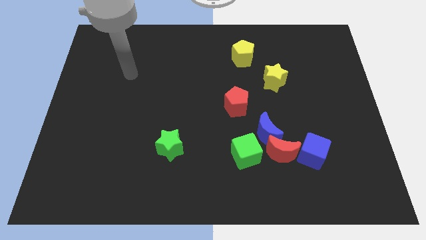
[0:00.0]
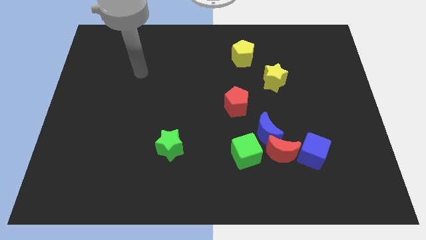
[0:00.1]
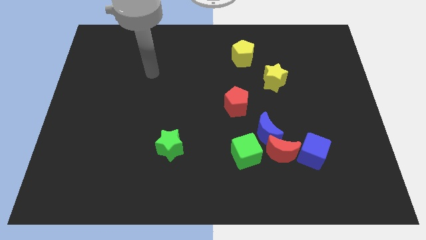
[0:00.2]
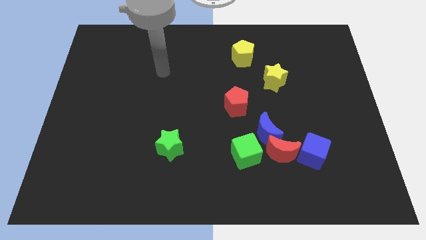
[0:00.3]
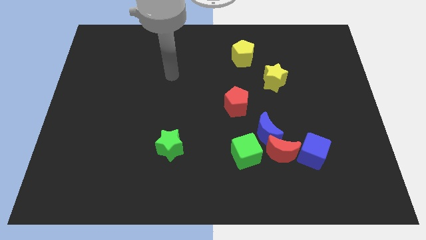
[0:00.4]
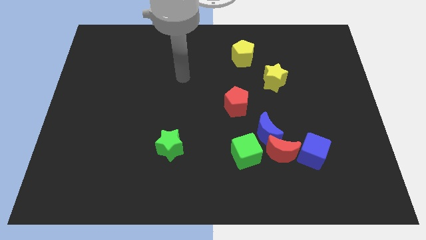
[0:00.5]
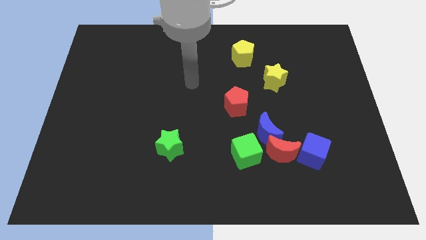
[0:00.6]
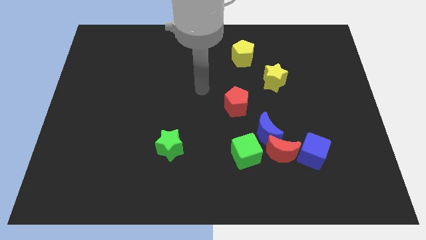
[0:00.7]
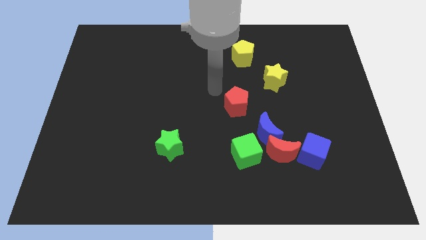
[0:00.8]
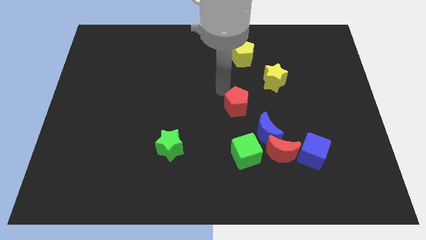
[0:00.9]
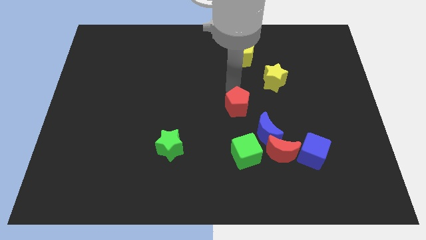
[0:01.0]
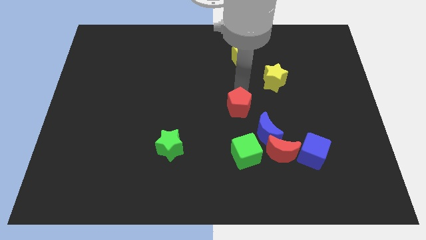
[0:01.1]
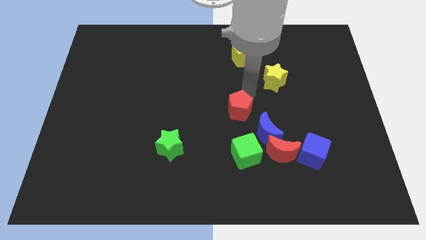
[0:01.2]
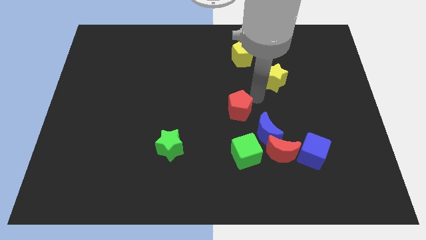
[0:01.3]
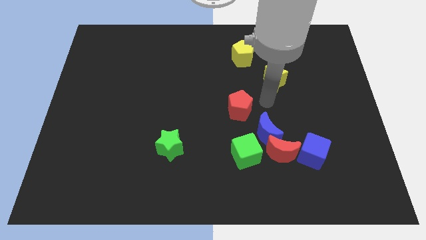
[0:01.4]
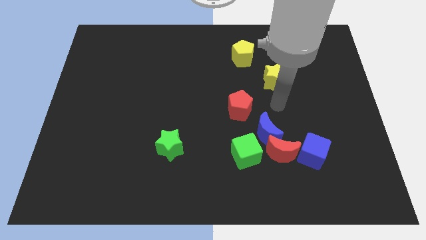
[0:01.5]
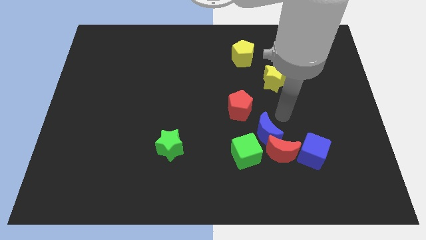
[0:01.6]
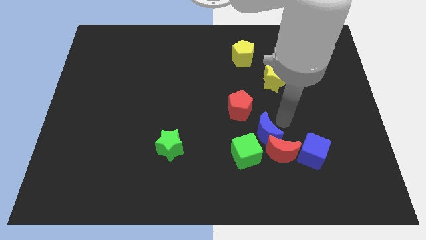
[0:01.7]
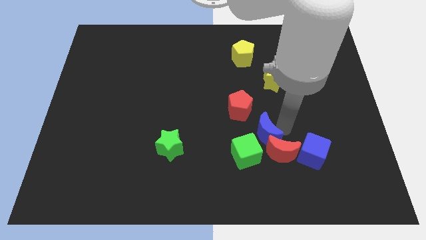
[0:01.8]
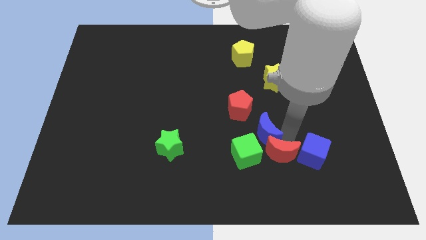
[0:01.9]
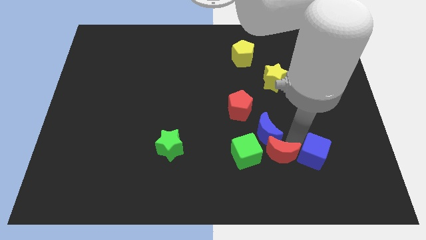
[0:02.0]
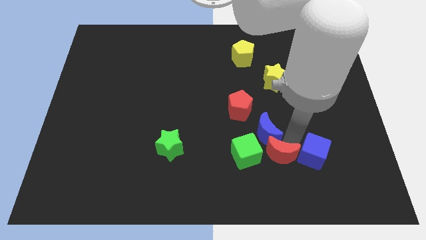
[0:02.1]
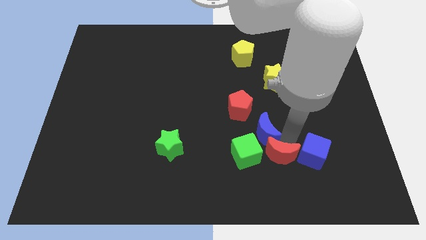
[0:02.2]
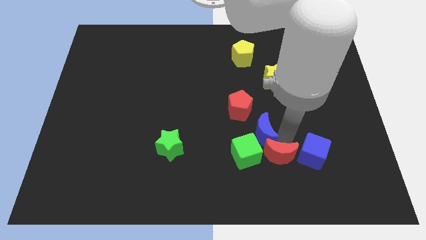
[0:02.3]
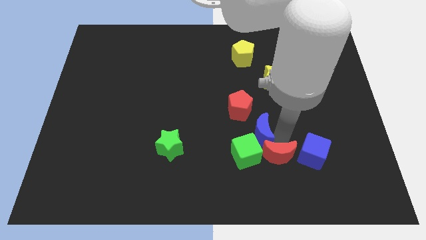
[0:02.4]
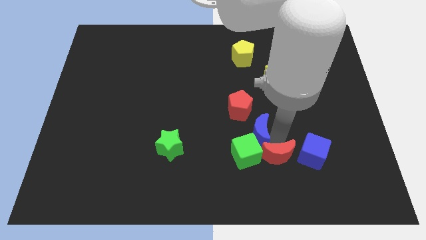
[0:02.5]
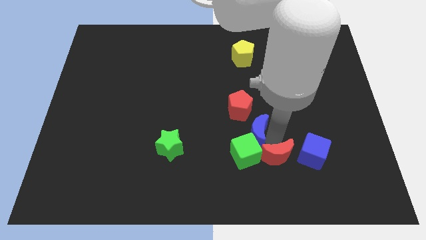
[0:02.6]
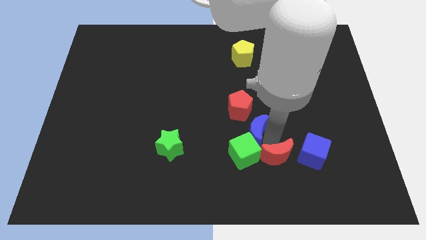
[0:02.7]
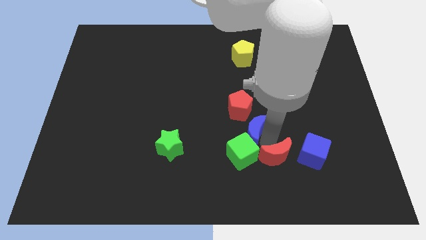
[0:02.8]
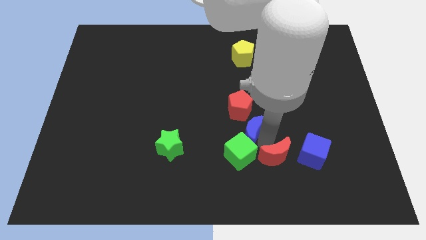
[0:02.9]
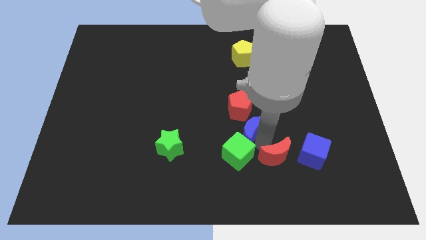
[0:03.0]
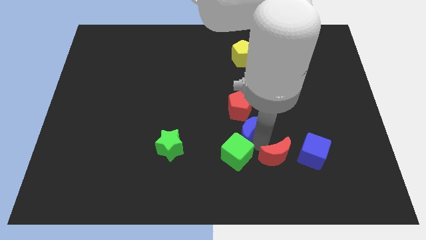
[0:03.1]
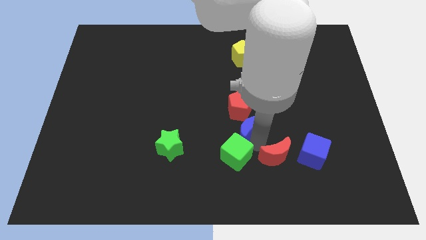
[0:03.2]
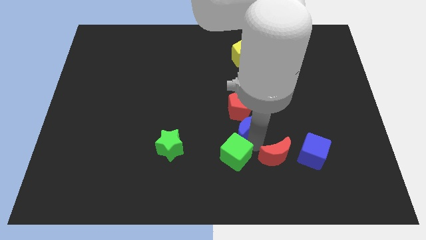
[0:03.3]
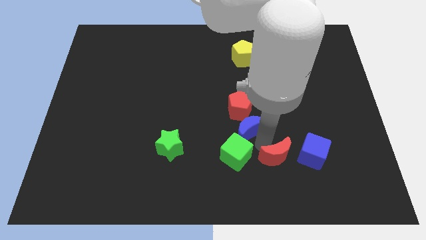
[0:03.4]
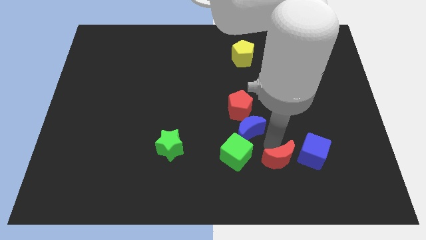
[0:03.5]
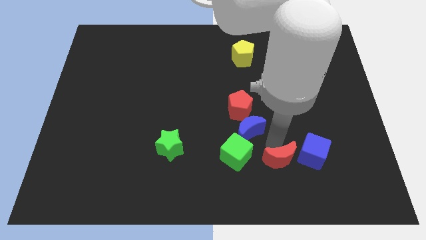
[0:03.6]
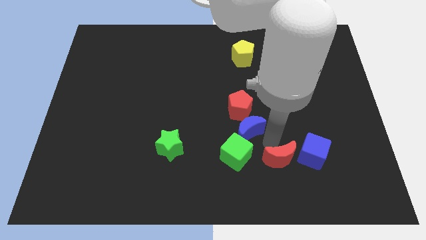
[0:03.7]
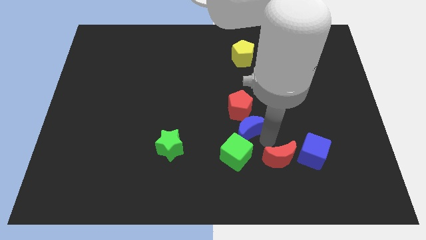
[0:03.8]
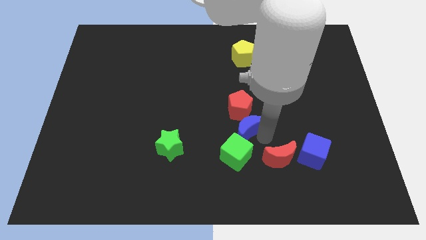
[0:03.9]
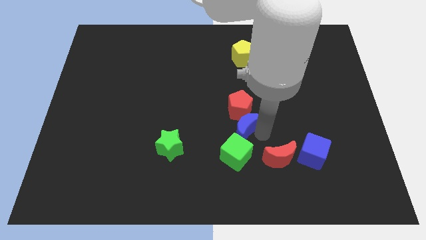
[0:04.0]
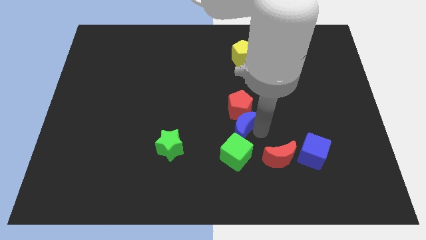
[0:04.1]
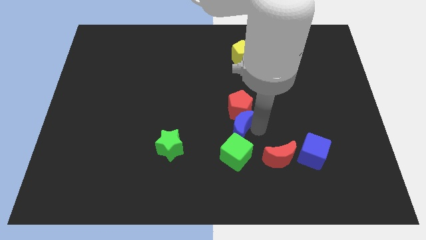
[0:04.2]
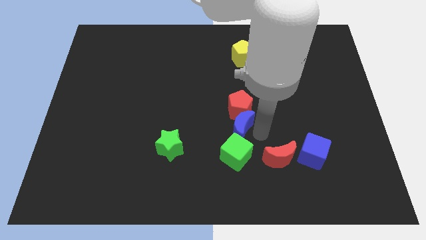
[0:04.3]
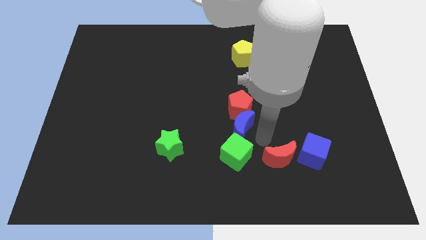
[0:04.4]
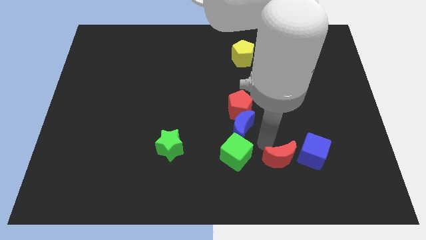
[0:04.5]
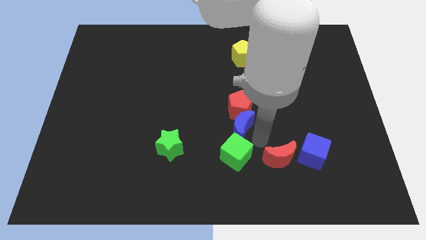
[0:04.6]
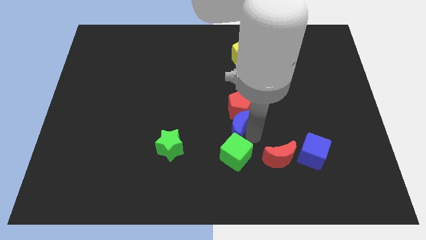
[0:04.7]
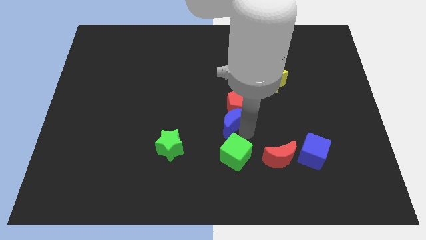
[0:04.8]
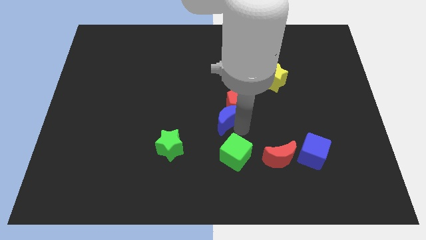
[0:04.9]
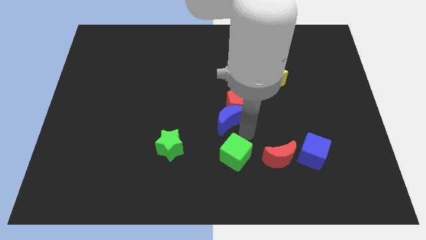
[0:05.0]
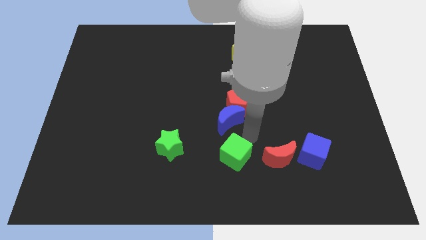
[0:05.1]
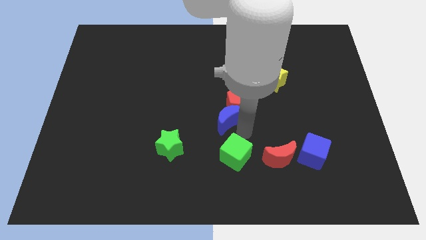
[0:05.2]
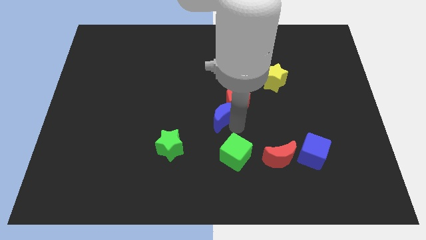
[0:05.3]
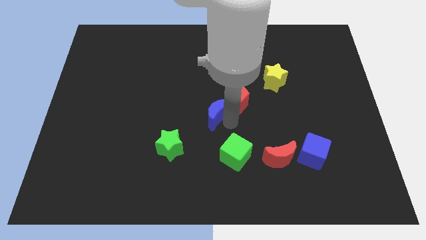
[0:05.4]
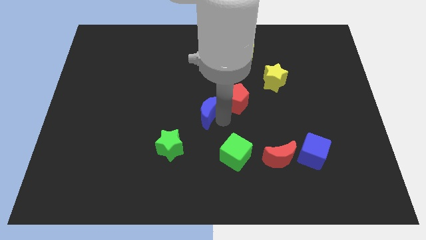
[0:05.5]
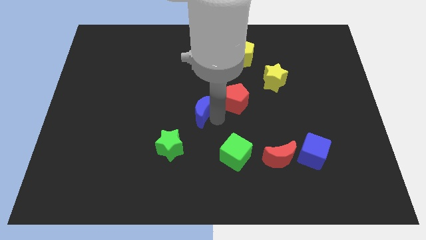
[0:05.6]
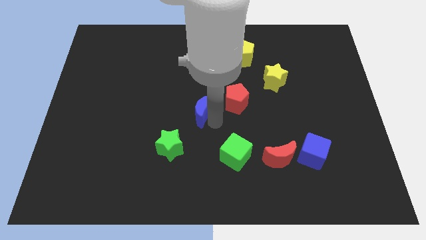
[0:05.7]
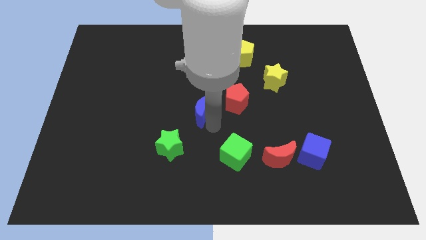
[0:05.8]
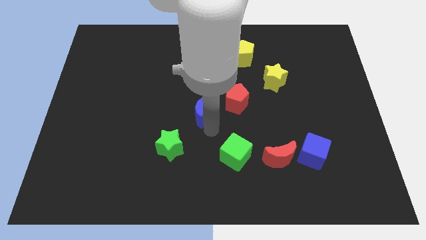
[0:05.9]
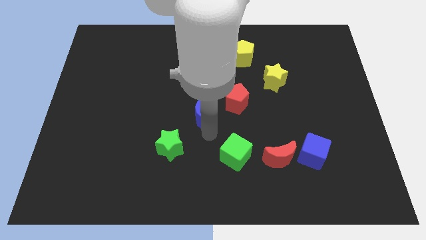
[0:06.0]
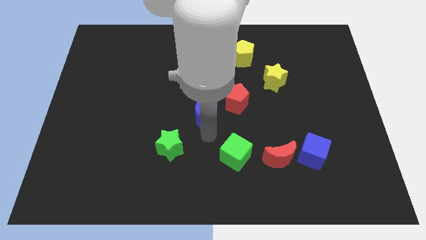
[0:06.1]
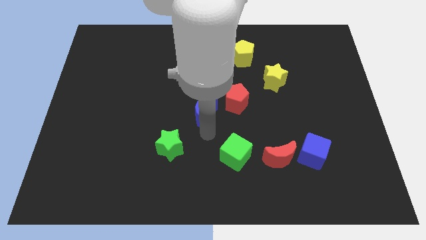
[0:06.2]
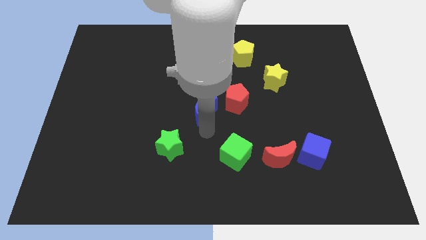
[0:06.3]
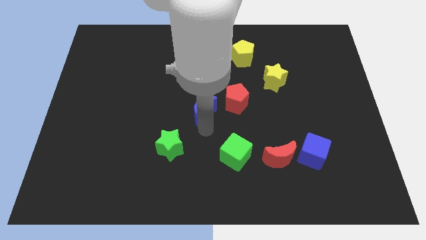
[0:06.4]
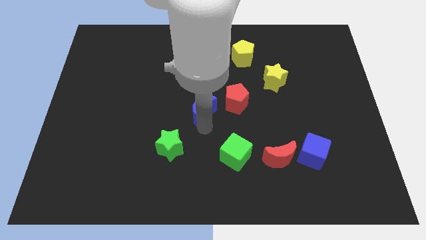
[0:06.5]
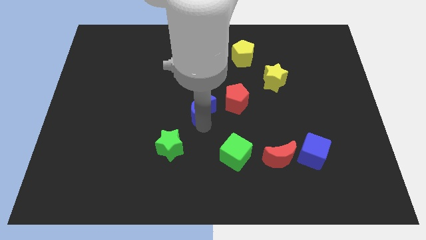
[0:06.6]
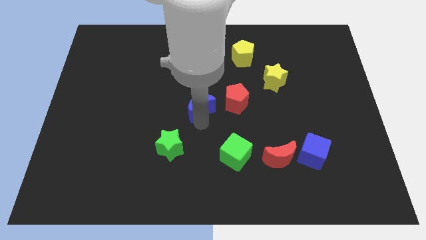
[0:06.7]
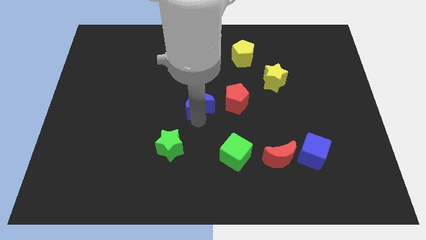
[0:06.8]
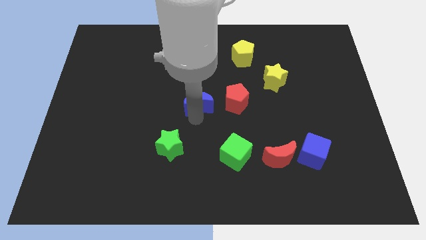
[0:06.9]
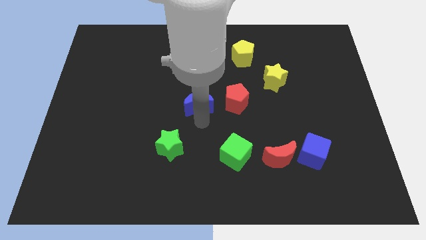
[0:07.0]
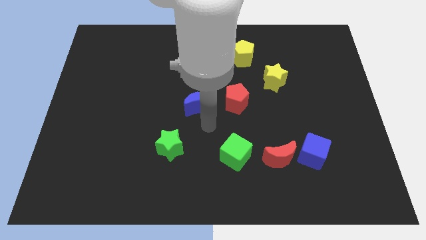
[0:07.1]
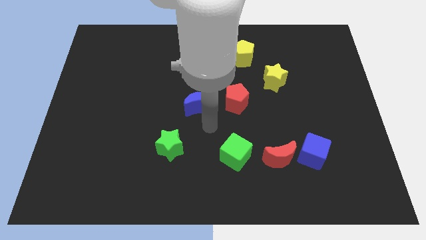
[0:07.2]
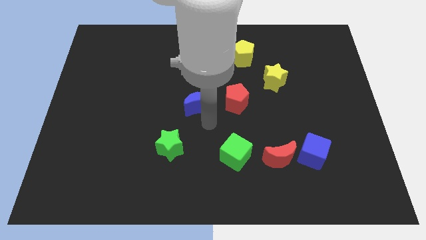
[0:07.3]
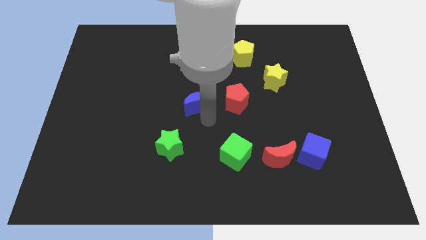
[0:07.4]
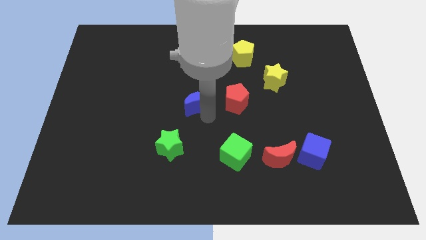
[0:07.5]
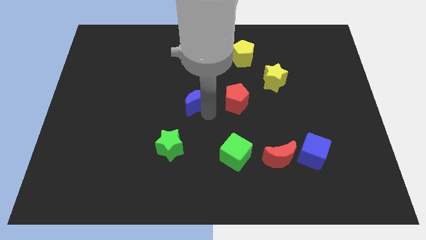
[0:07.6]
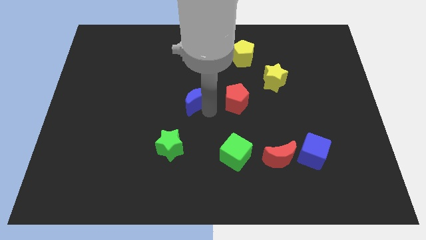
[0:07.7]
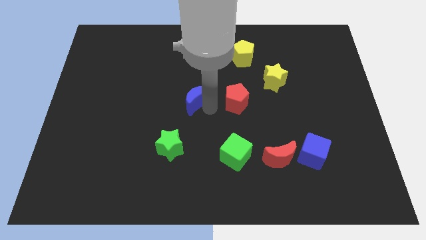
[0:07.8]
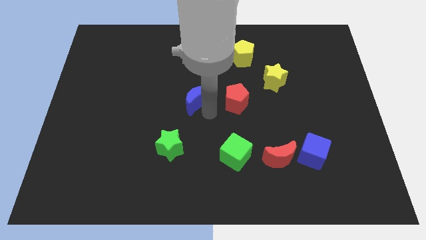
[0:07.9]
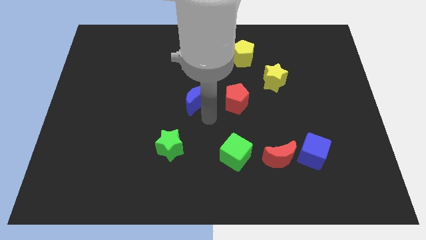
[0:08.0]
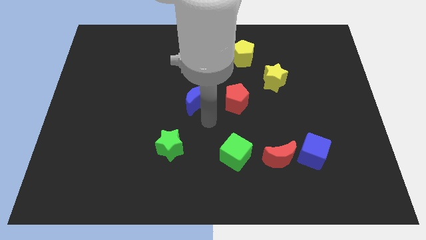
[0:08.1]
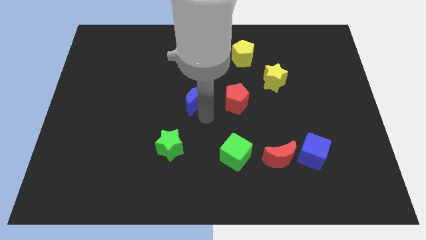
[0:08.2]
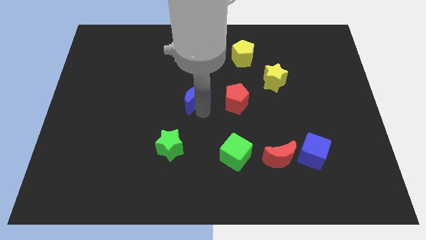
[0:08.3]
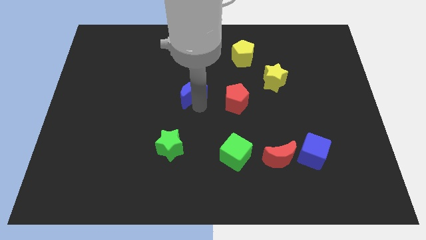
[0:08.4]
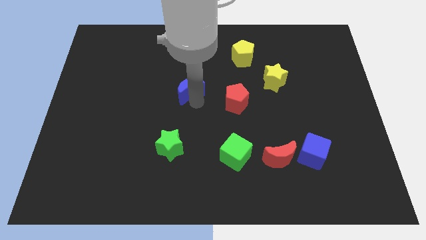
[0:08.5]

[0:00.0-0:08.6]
slide the blue moon up and to the left
